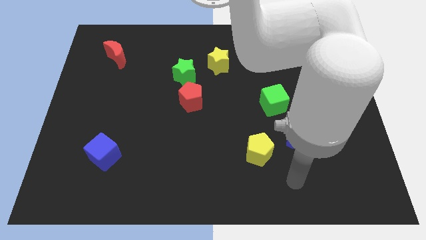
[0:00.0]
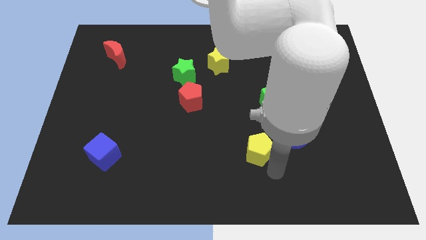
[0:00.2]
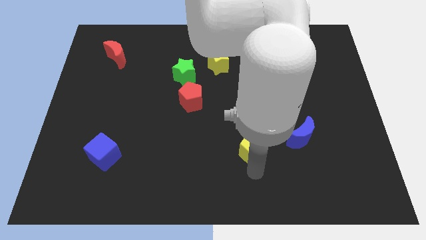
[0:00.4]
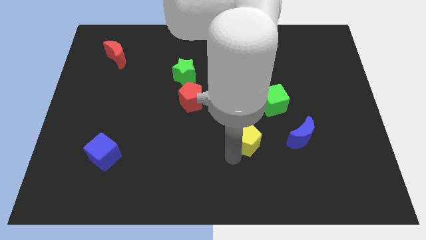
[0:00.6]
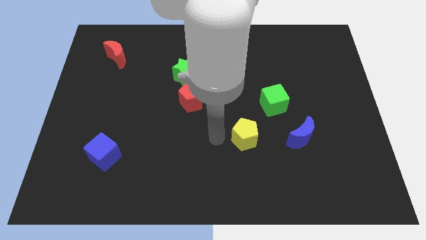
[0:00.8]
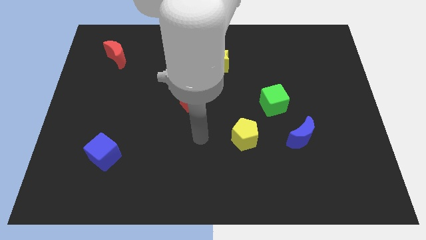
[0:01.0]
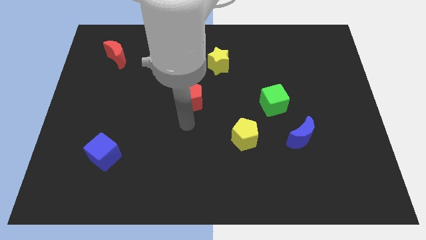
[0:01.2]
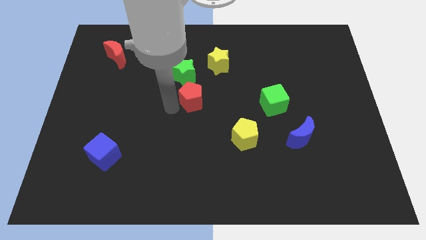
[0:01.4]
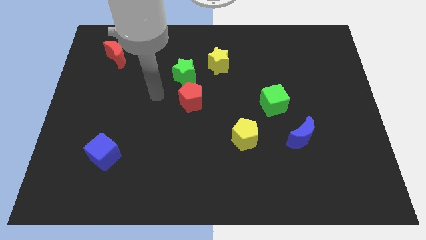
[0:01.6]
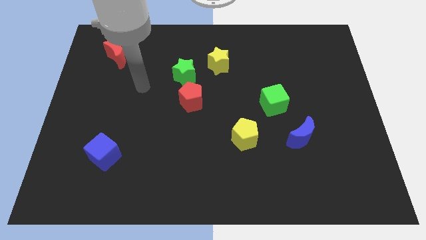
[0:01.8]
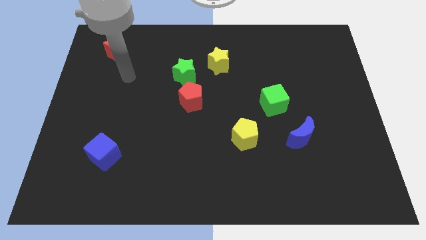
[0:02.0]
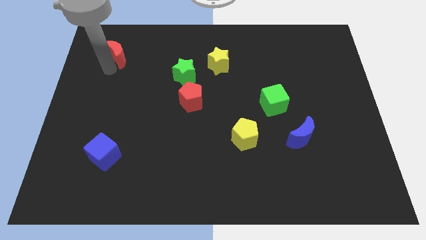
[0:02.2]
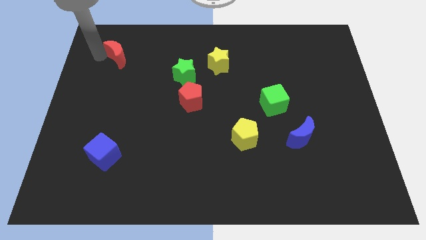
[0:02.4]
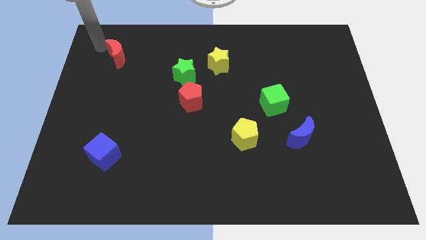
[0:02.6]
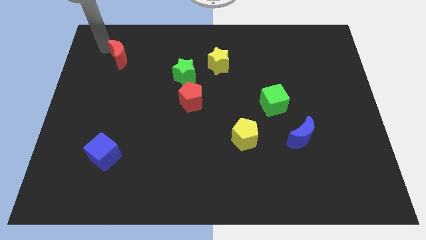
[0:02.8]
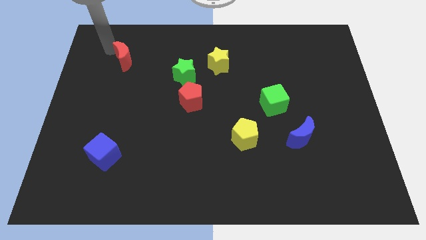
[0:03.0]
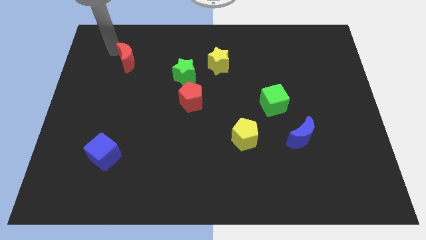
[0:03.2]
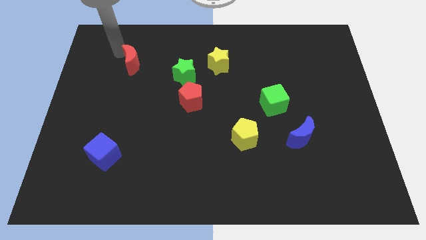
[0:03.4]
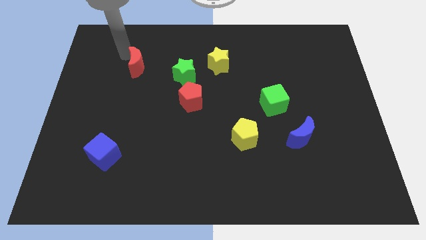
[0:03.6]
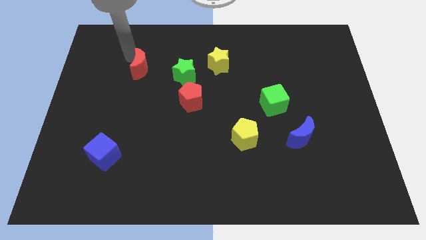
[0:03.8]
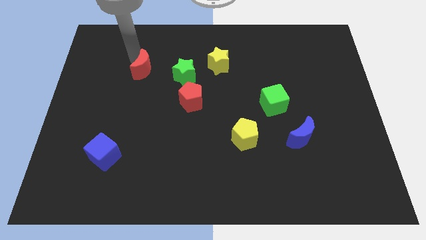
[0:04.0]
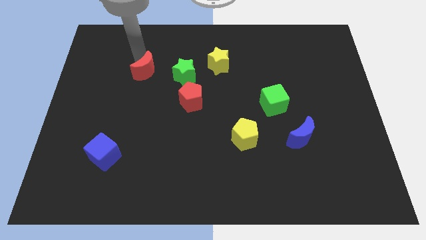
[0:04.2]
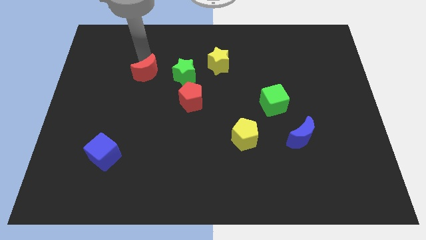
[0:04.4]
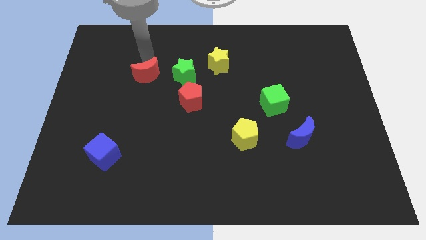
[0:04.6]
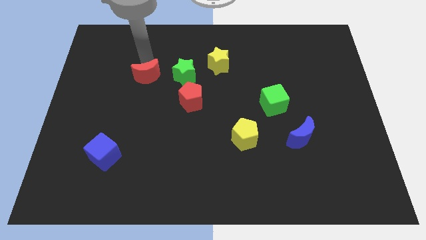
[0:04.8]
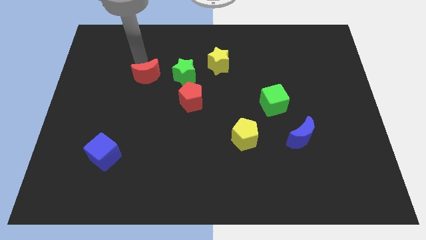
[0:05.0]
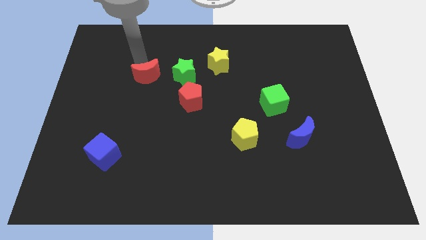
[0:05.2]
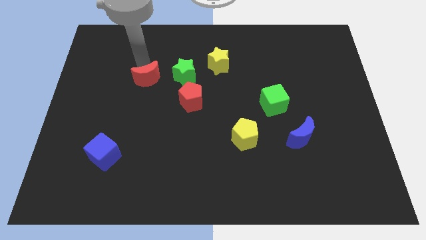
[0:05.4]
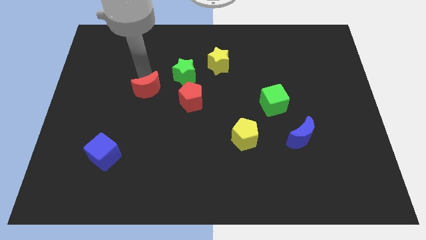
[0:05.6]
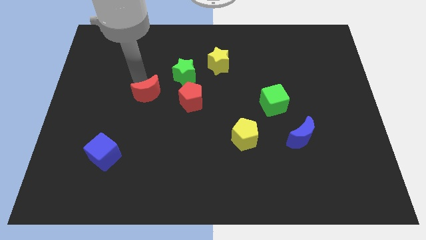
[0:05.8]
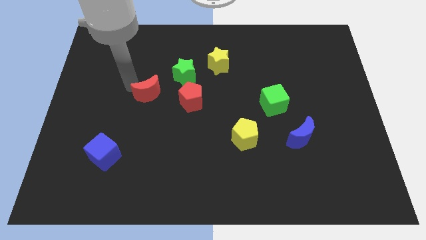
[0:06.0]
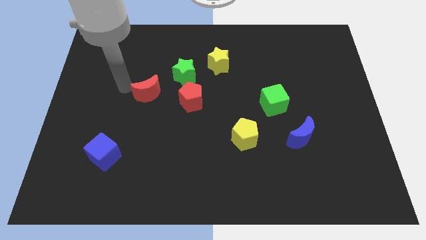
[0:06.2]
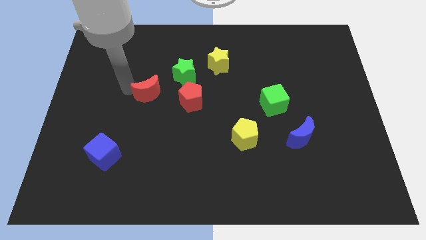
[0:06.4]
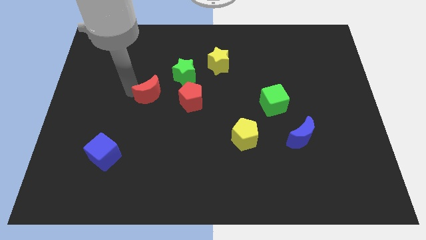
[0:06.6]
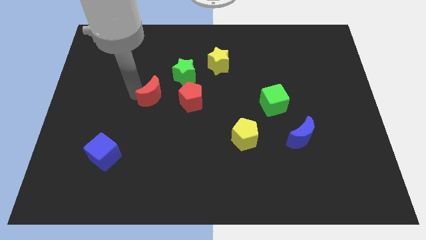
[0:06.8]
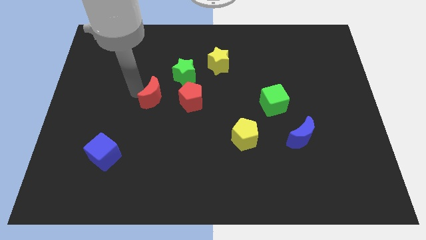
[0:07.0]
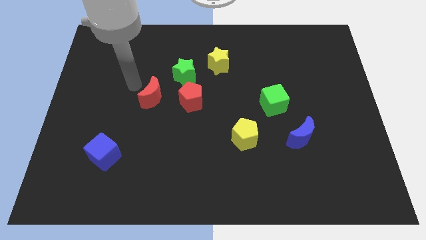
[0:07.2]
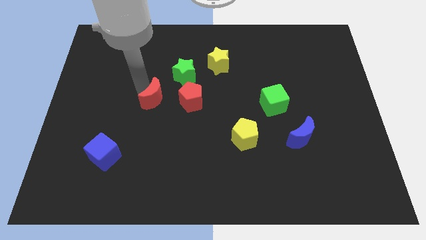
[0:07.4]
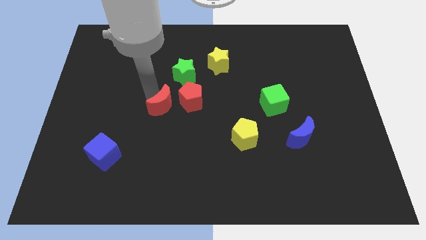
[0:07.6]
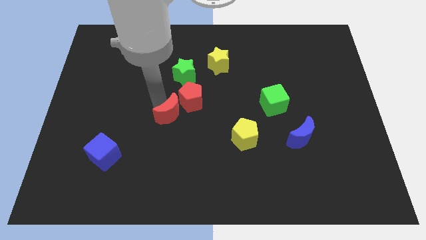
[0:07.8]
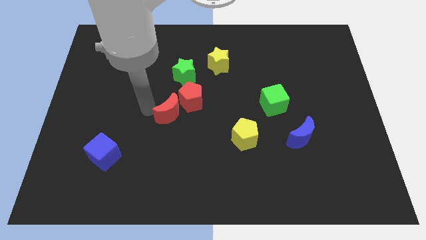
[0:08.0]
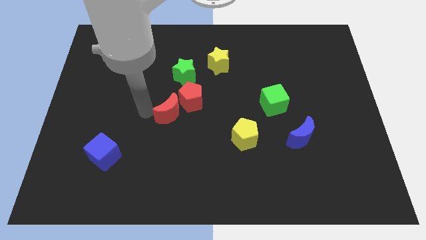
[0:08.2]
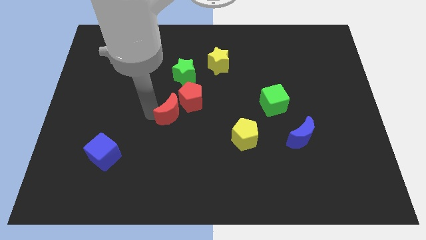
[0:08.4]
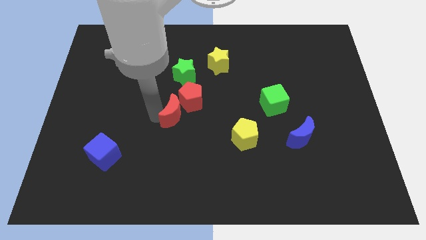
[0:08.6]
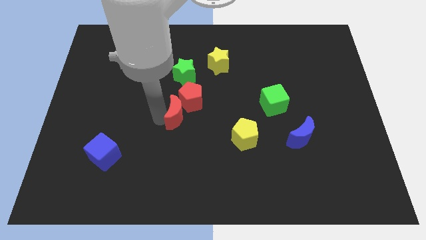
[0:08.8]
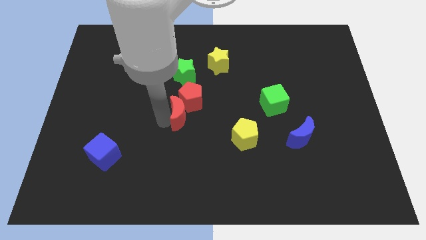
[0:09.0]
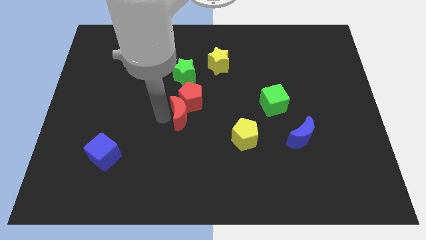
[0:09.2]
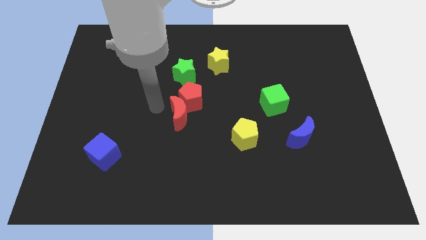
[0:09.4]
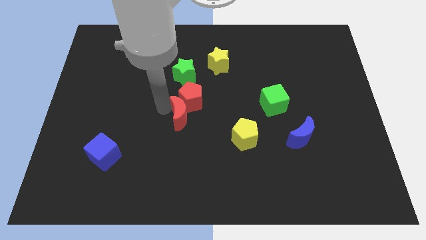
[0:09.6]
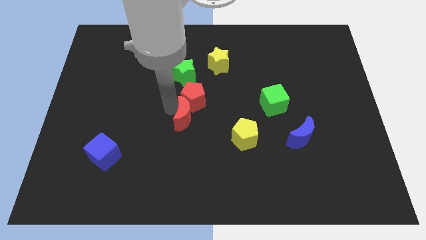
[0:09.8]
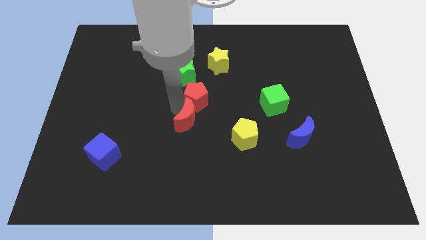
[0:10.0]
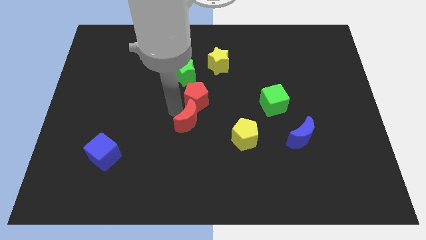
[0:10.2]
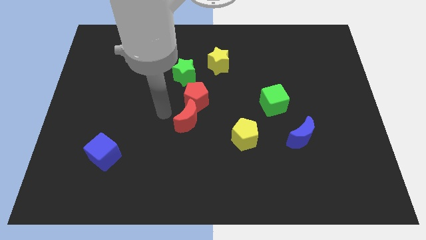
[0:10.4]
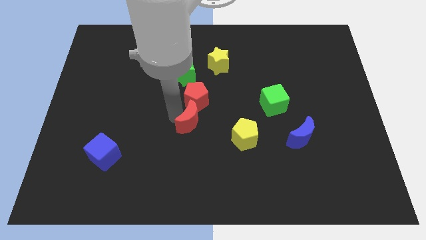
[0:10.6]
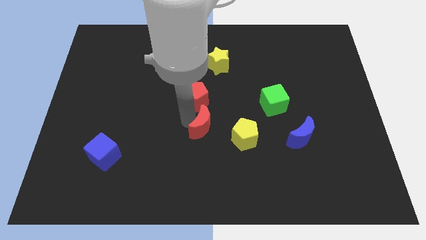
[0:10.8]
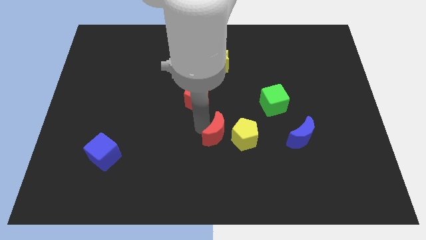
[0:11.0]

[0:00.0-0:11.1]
slide the red moon to the yellow pentagon

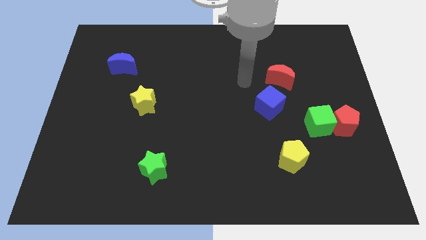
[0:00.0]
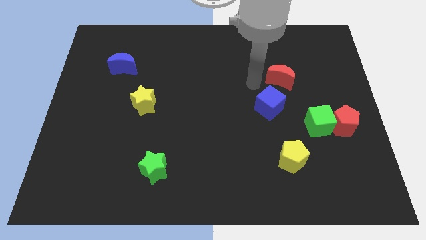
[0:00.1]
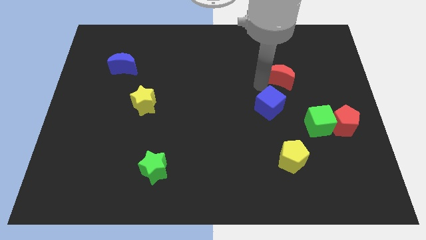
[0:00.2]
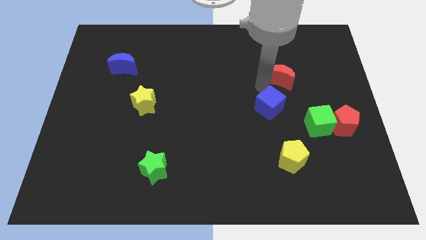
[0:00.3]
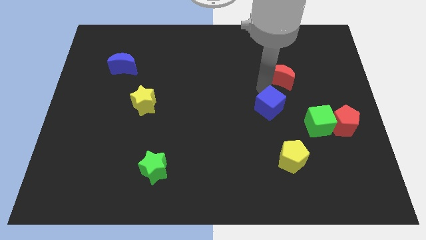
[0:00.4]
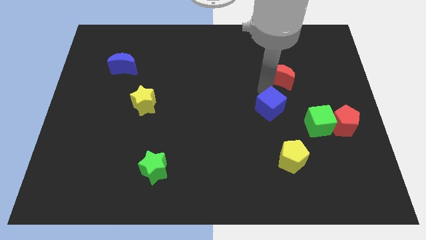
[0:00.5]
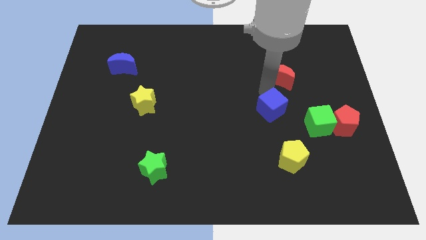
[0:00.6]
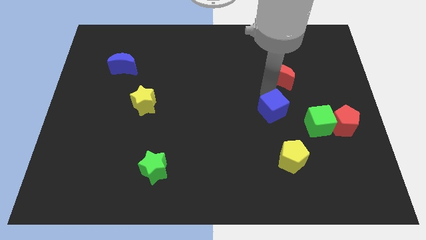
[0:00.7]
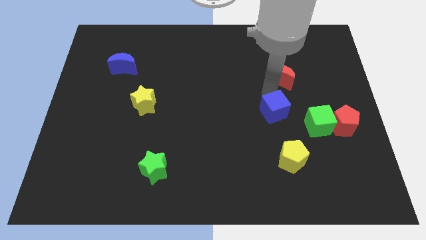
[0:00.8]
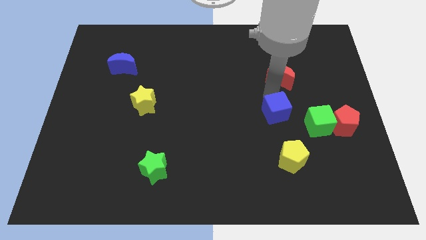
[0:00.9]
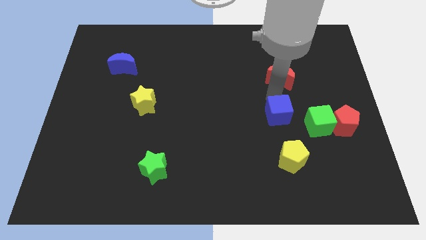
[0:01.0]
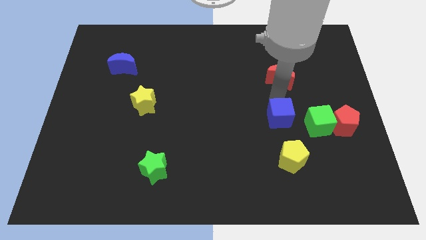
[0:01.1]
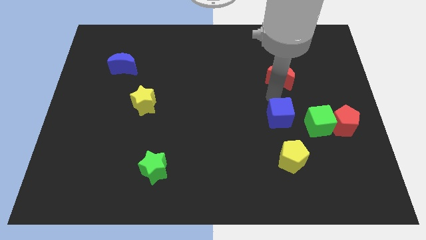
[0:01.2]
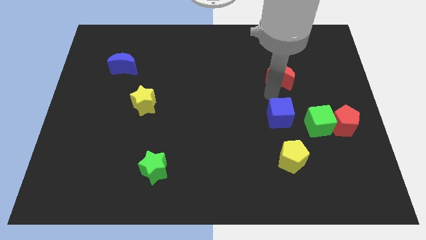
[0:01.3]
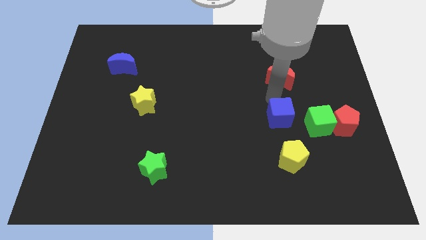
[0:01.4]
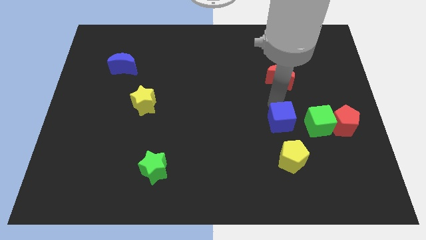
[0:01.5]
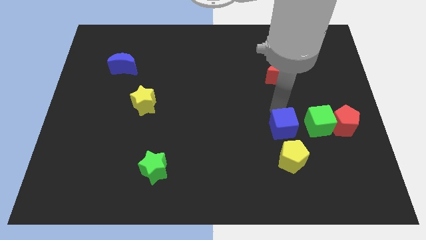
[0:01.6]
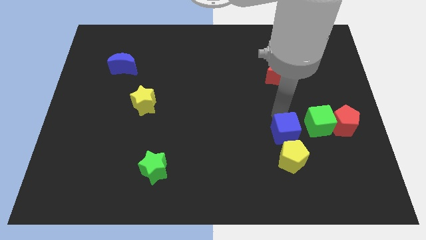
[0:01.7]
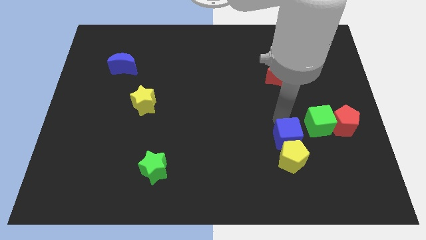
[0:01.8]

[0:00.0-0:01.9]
move the blue cube next to the yellow pentagon

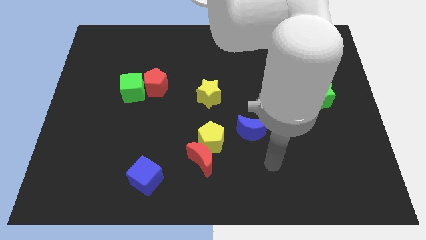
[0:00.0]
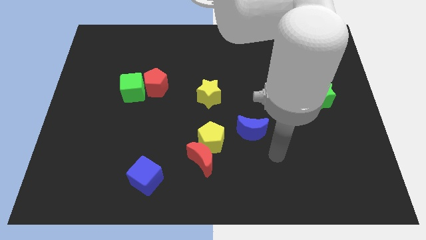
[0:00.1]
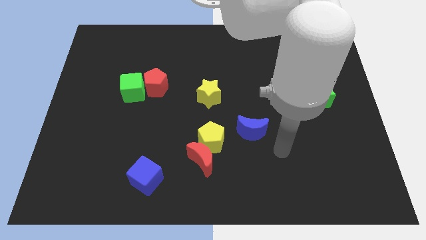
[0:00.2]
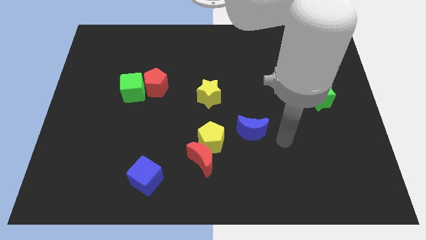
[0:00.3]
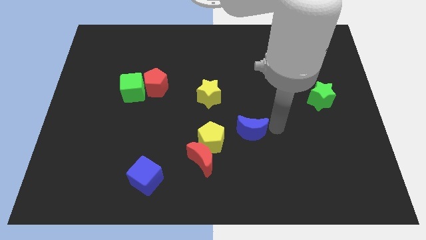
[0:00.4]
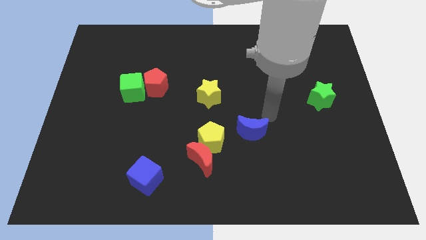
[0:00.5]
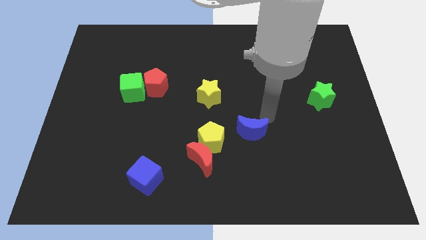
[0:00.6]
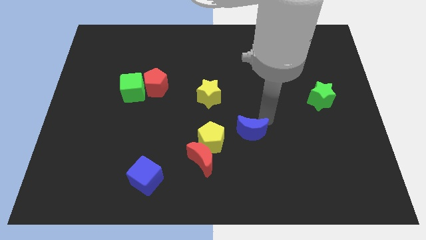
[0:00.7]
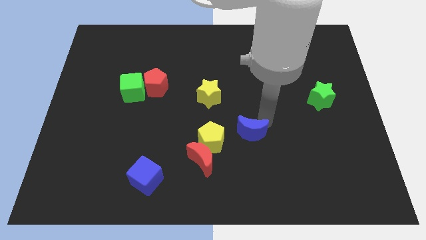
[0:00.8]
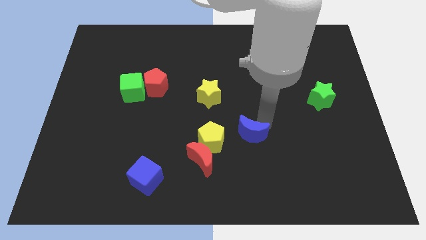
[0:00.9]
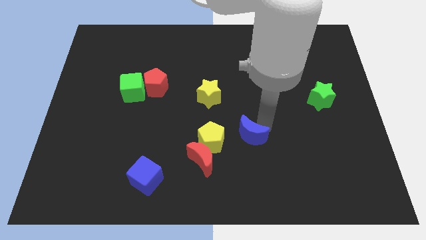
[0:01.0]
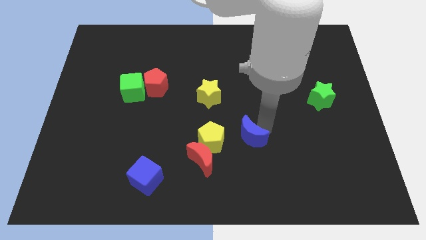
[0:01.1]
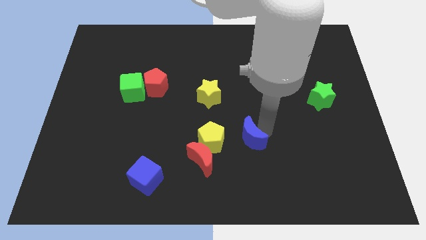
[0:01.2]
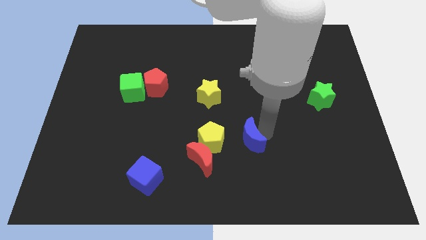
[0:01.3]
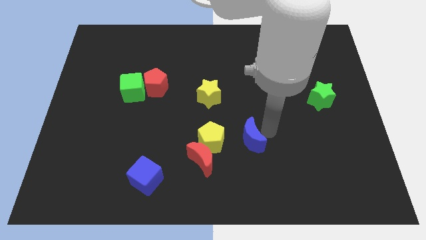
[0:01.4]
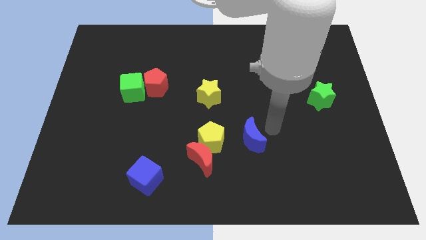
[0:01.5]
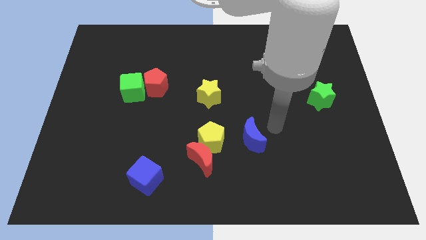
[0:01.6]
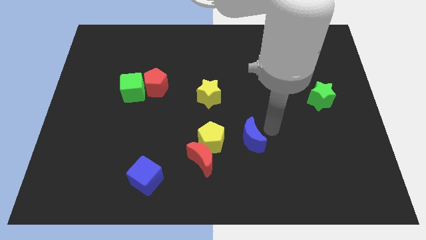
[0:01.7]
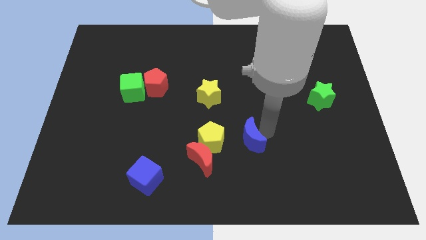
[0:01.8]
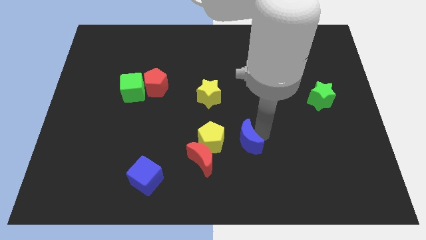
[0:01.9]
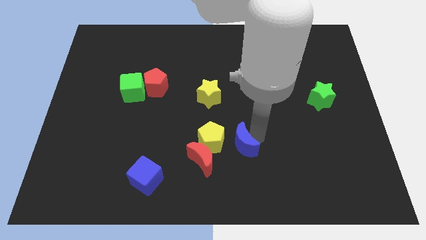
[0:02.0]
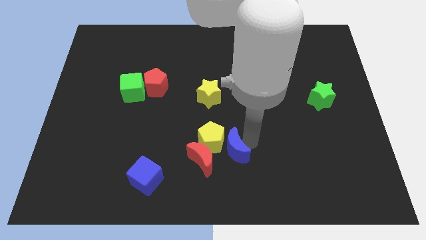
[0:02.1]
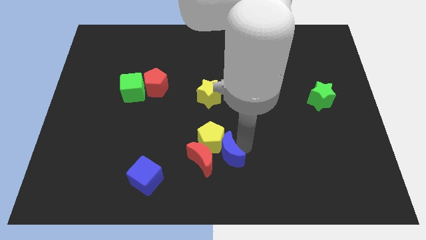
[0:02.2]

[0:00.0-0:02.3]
move the blue moon towards the red moon
